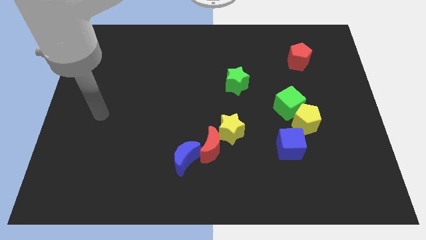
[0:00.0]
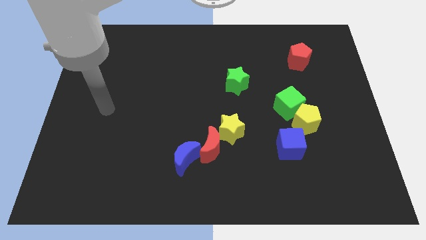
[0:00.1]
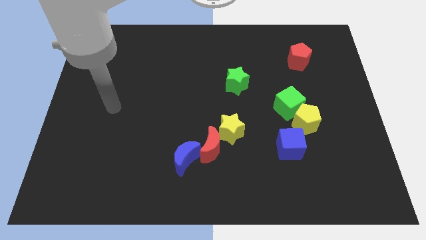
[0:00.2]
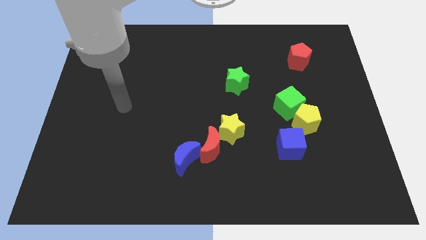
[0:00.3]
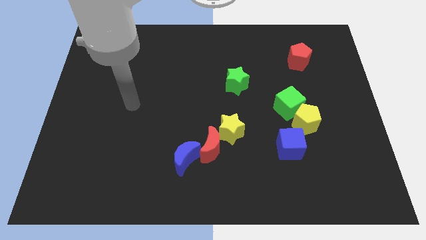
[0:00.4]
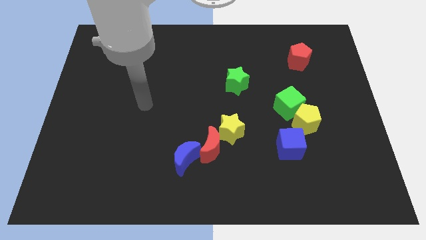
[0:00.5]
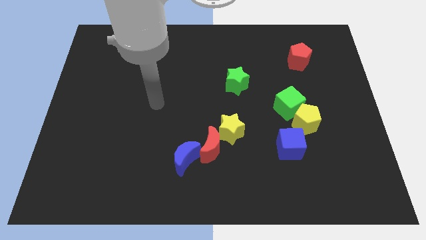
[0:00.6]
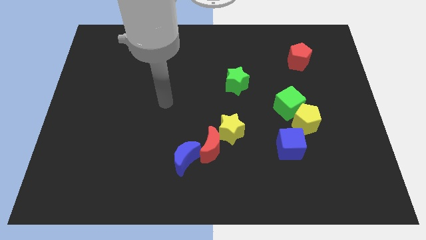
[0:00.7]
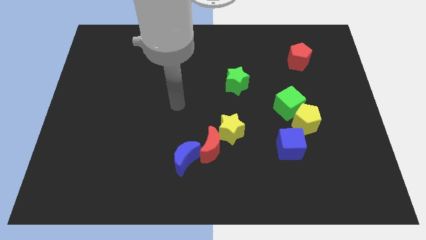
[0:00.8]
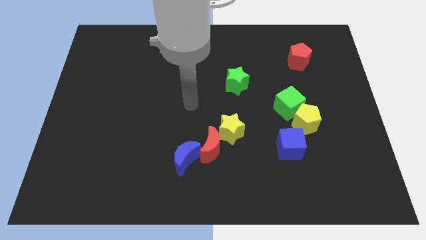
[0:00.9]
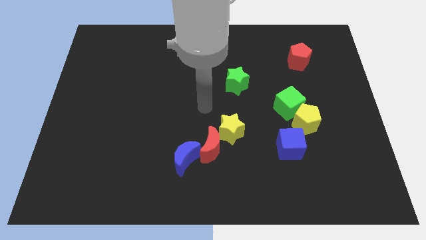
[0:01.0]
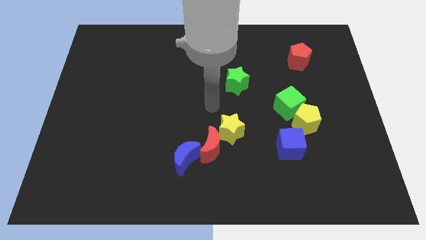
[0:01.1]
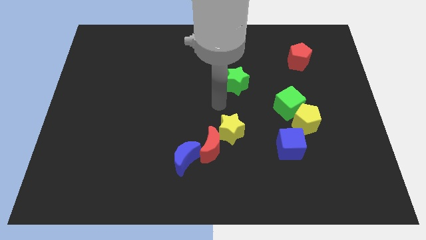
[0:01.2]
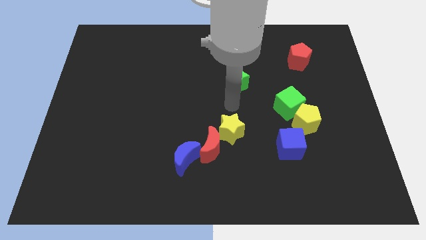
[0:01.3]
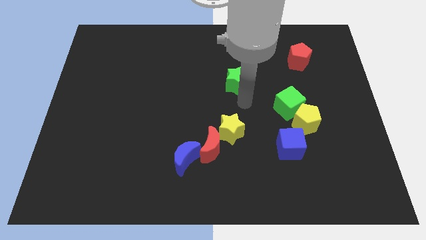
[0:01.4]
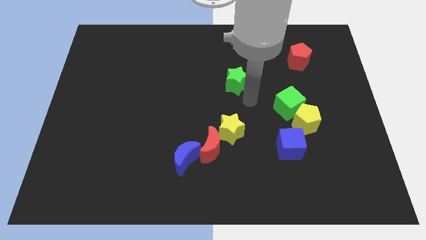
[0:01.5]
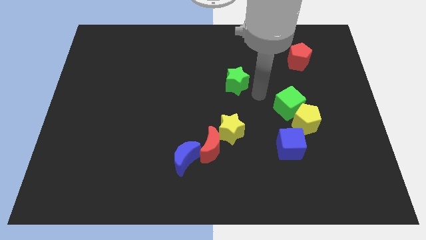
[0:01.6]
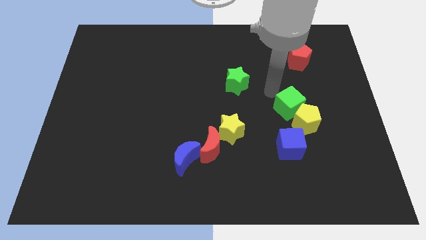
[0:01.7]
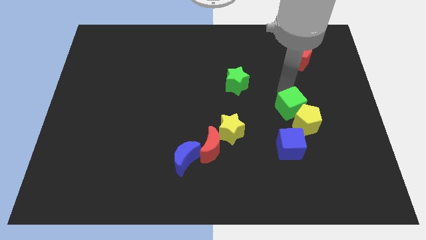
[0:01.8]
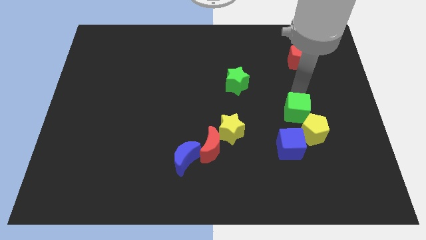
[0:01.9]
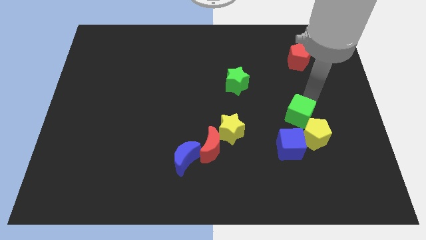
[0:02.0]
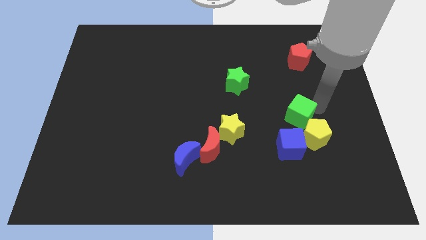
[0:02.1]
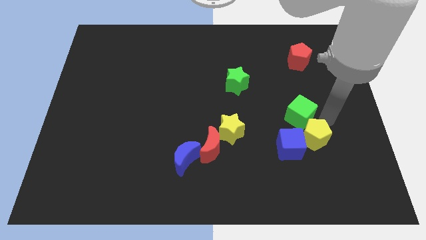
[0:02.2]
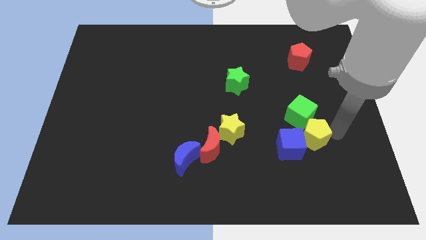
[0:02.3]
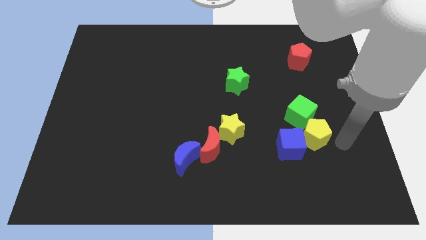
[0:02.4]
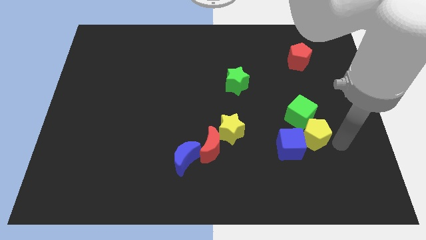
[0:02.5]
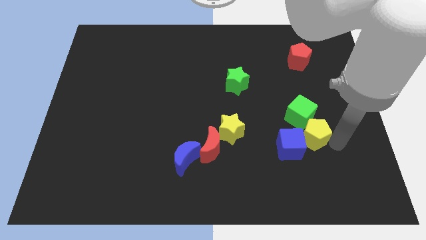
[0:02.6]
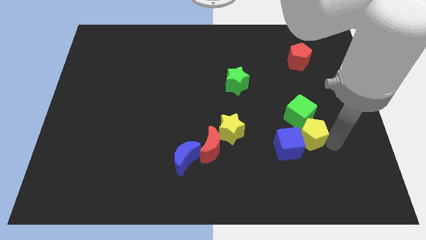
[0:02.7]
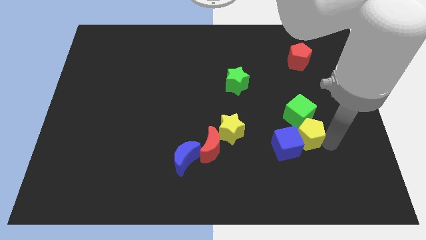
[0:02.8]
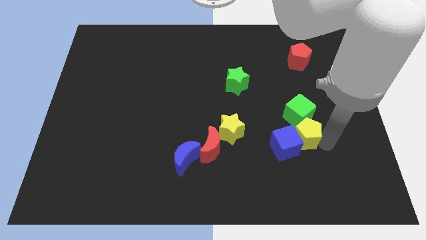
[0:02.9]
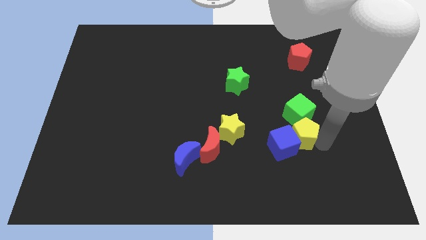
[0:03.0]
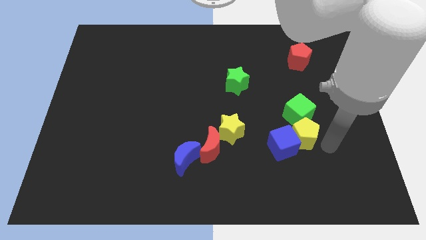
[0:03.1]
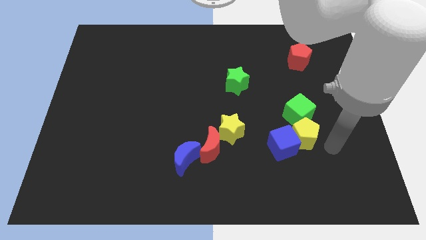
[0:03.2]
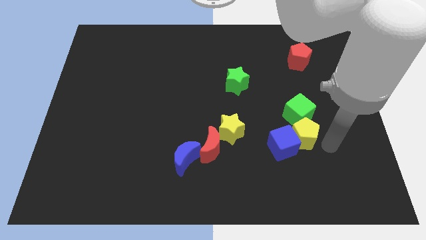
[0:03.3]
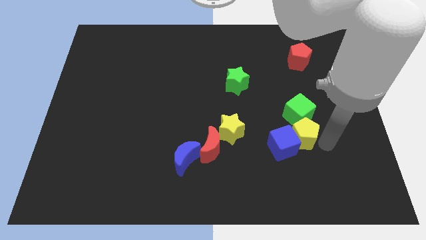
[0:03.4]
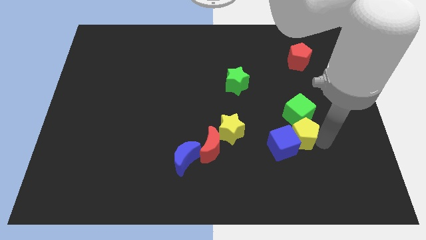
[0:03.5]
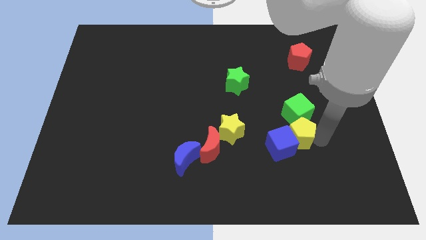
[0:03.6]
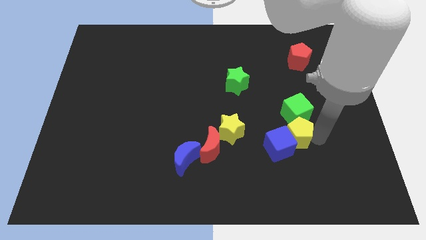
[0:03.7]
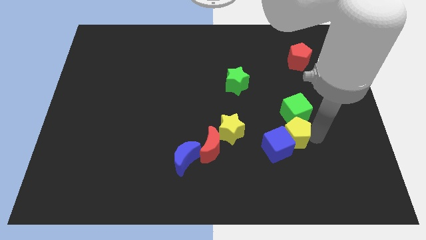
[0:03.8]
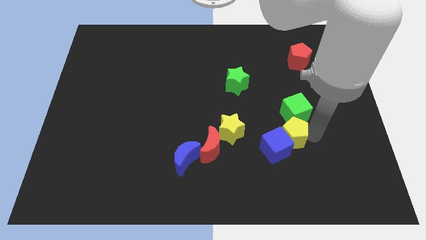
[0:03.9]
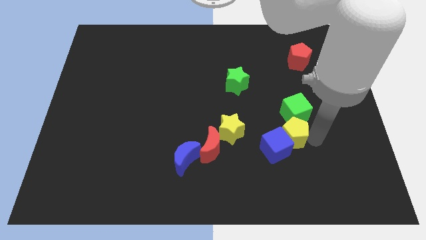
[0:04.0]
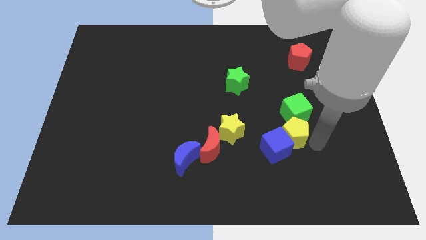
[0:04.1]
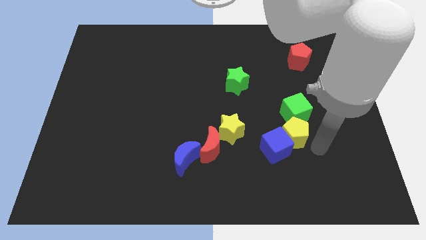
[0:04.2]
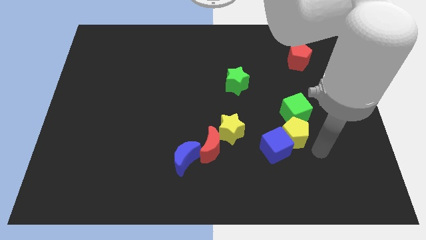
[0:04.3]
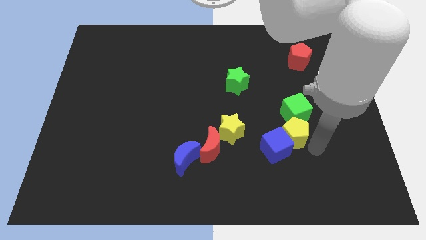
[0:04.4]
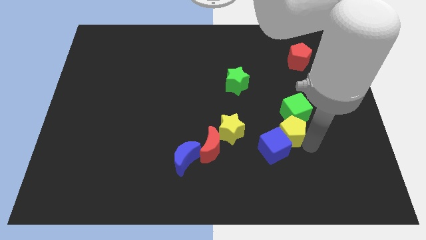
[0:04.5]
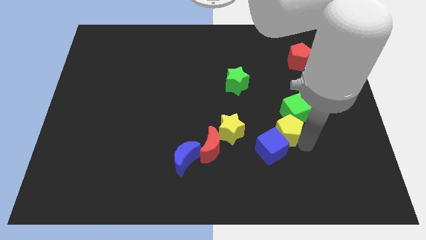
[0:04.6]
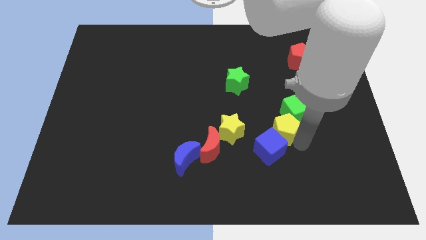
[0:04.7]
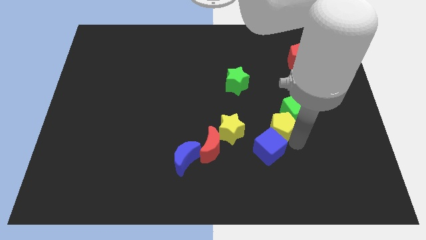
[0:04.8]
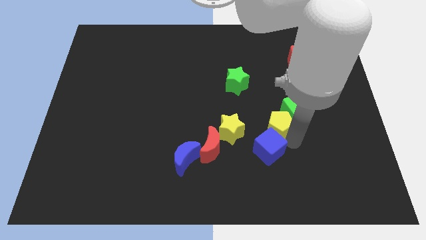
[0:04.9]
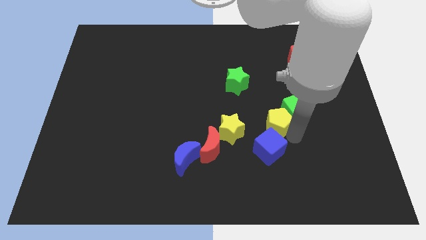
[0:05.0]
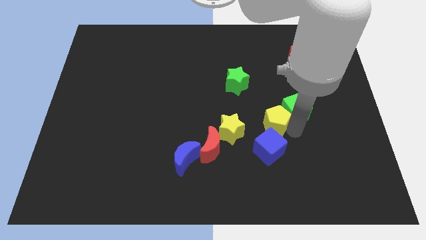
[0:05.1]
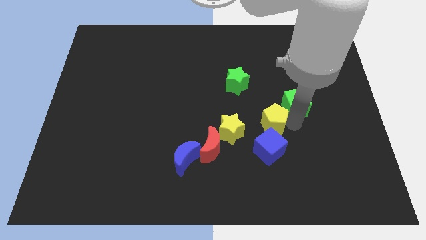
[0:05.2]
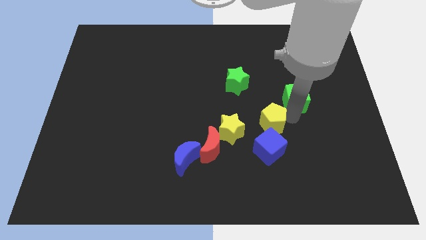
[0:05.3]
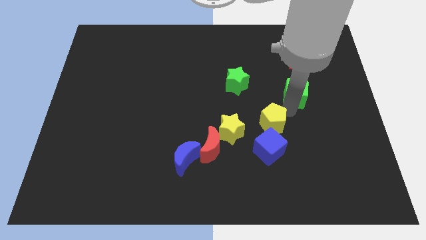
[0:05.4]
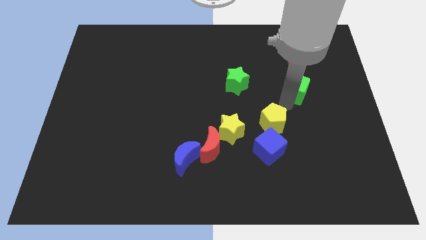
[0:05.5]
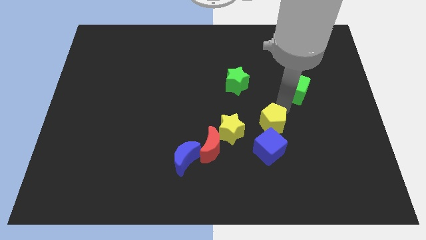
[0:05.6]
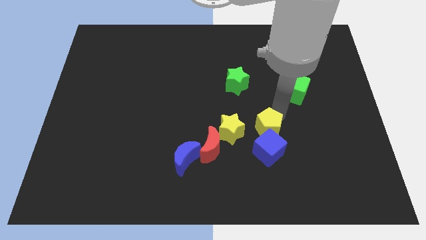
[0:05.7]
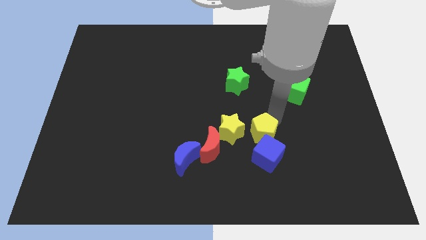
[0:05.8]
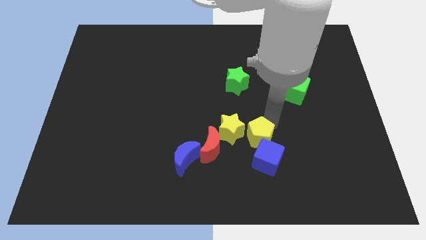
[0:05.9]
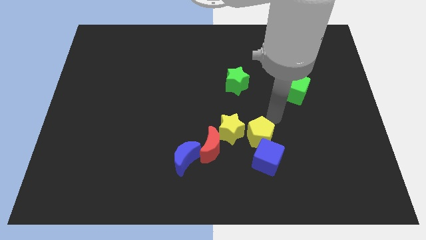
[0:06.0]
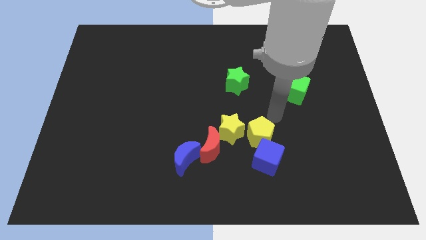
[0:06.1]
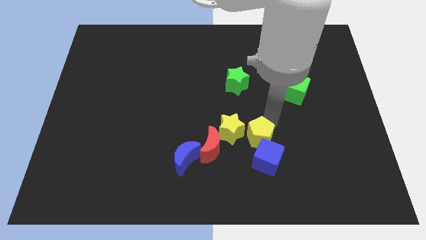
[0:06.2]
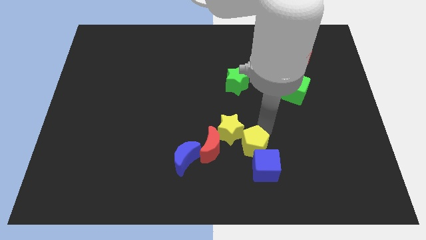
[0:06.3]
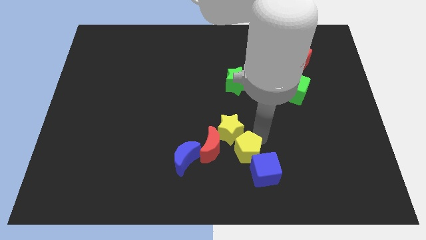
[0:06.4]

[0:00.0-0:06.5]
put the yellow pentagon to the bottom of the yellow star

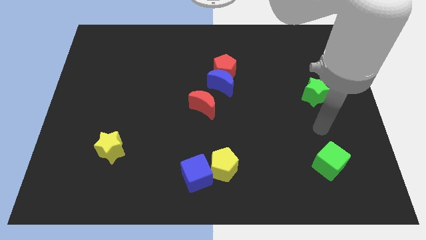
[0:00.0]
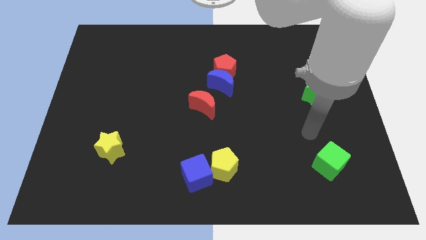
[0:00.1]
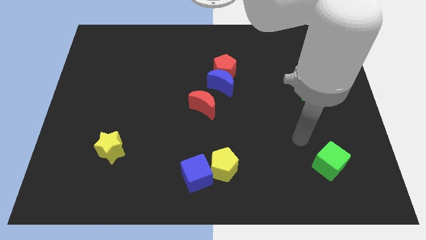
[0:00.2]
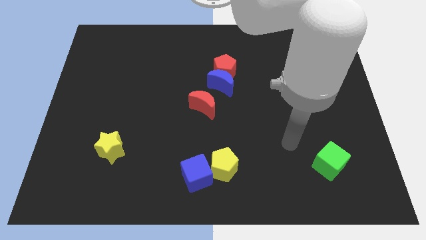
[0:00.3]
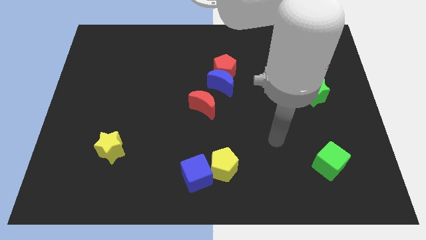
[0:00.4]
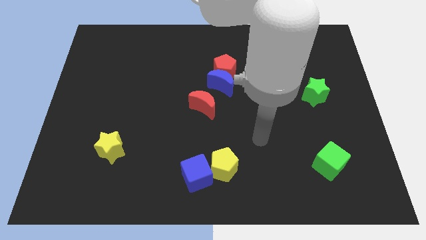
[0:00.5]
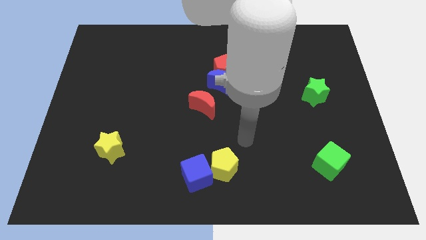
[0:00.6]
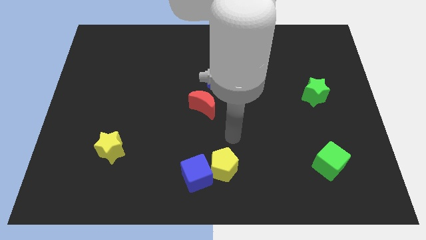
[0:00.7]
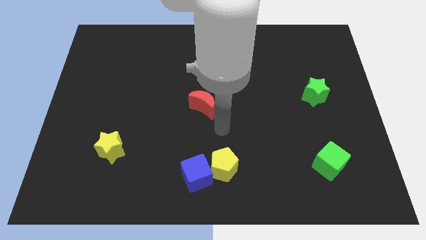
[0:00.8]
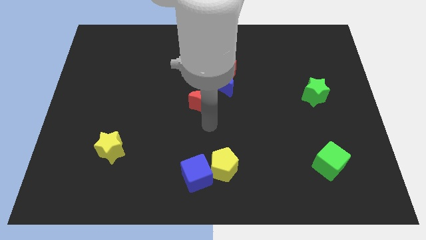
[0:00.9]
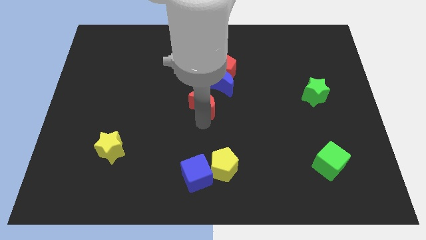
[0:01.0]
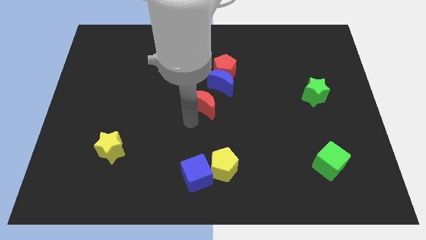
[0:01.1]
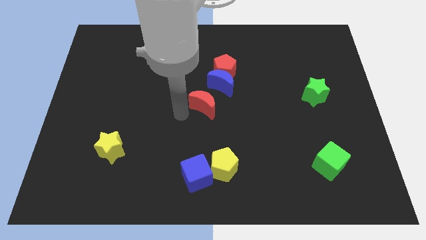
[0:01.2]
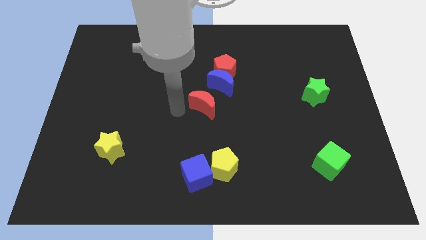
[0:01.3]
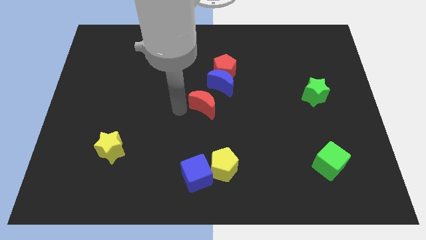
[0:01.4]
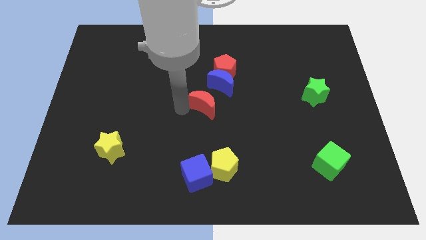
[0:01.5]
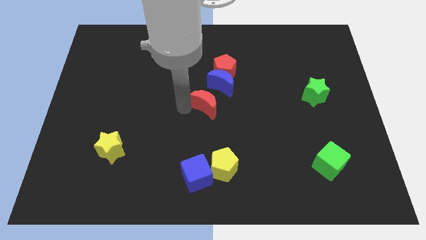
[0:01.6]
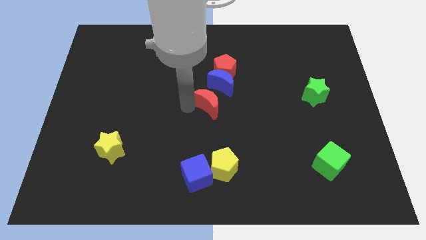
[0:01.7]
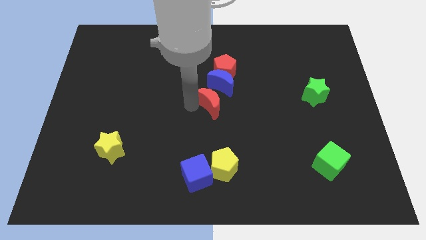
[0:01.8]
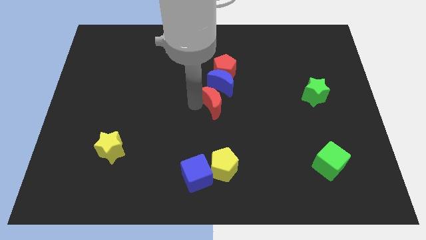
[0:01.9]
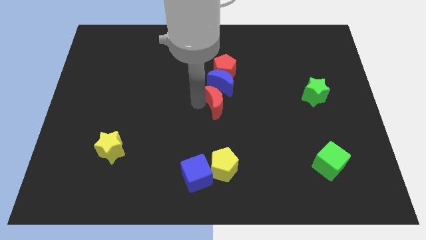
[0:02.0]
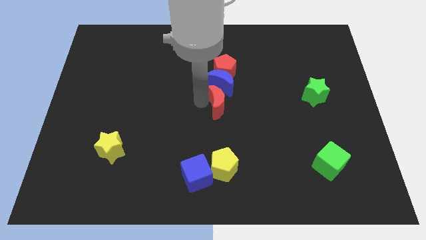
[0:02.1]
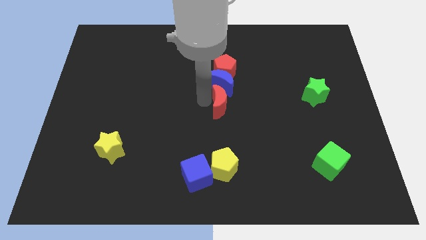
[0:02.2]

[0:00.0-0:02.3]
put the red moon to the bottom right side of the blue moon
